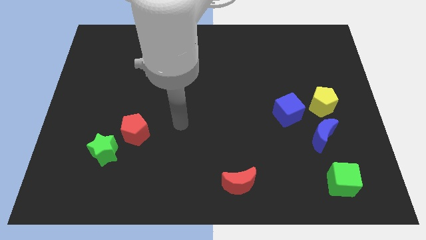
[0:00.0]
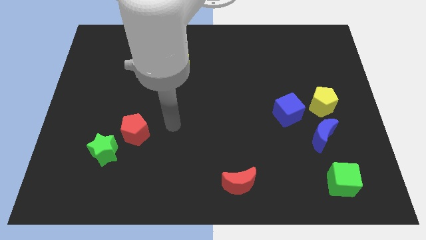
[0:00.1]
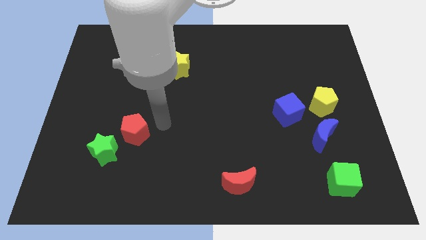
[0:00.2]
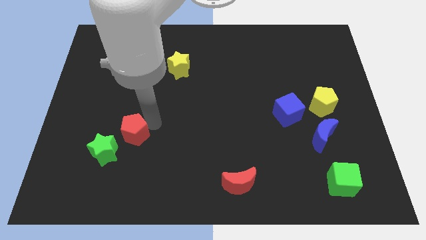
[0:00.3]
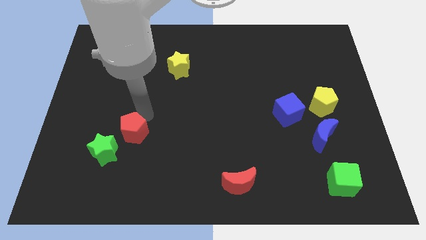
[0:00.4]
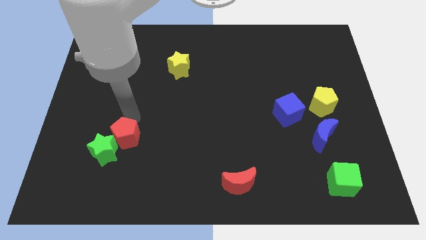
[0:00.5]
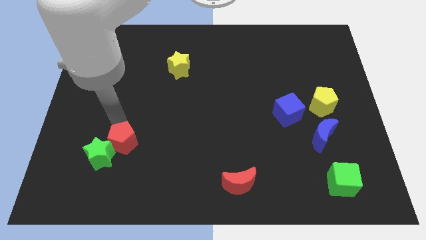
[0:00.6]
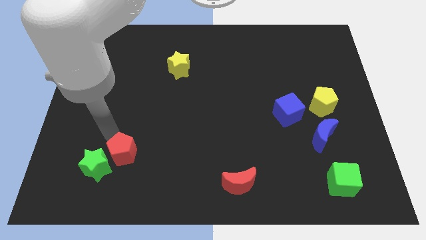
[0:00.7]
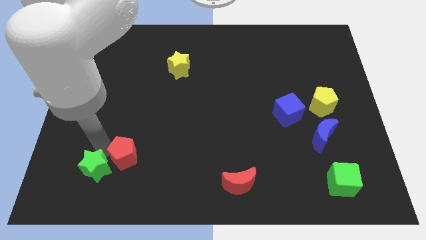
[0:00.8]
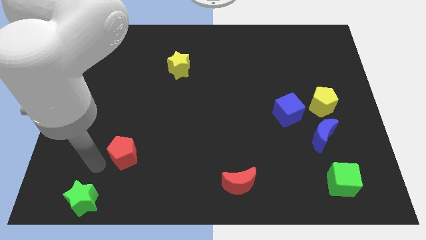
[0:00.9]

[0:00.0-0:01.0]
move the red pentagon away from the green star

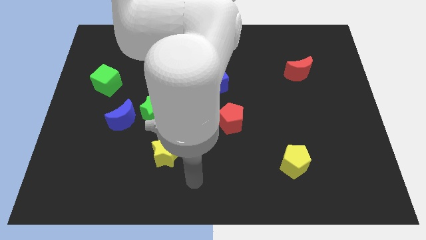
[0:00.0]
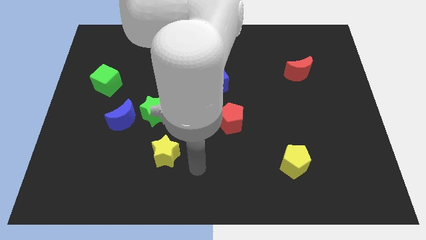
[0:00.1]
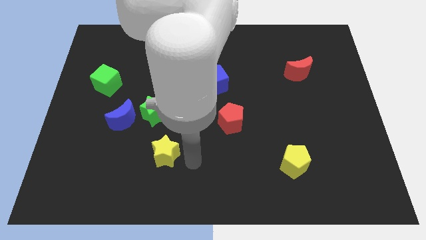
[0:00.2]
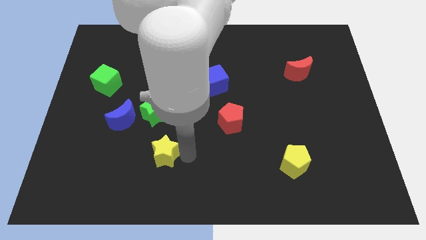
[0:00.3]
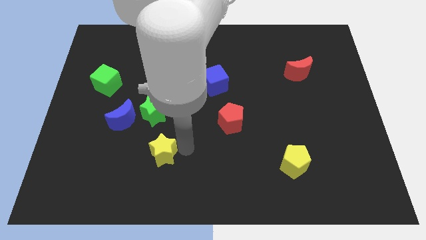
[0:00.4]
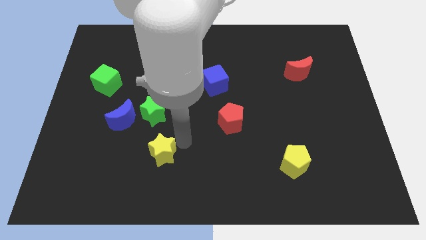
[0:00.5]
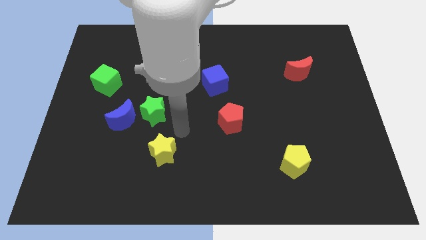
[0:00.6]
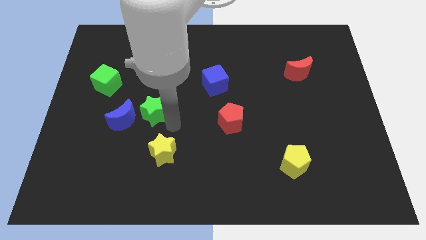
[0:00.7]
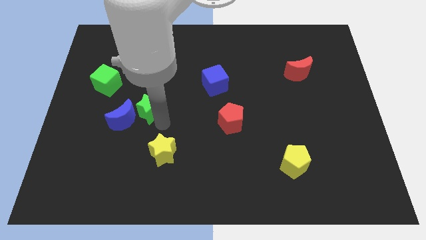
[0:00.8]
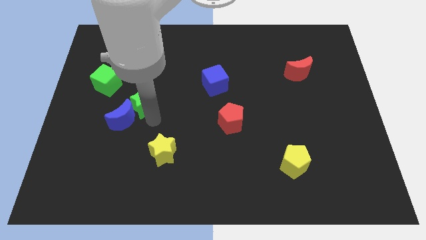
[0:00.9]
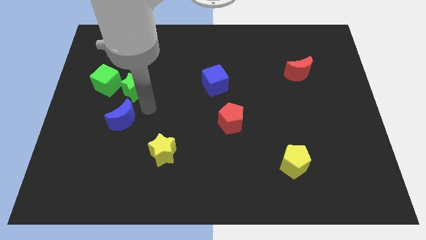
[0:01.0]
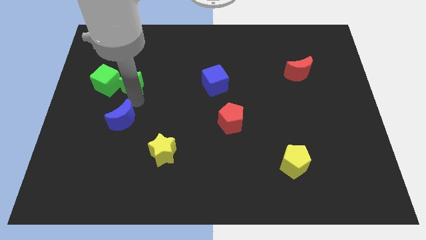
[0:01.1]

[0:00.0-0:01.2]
pull the blue moon apart from the green star

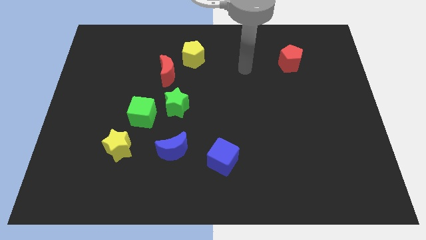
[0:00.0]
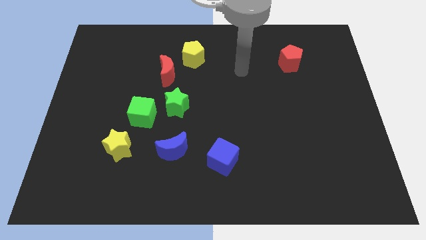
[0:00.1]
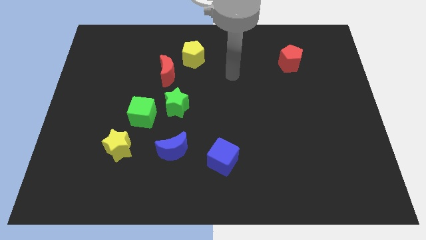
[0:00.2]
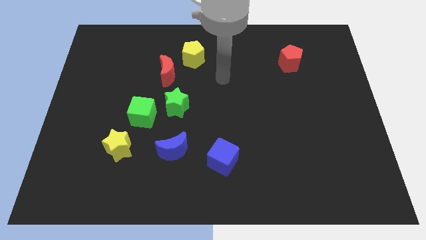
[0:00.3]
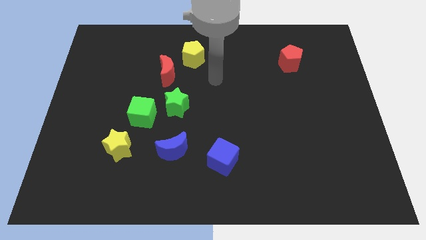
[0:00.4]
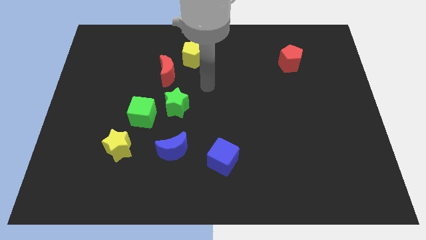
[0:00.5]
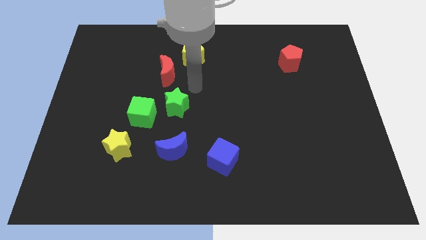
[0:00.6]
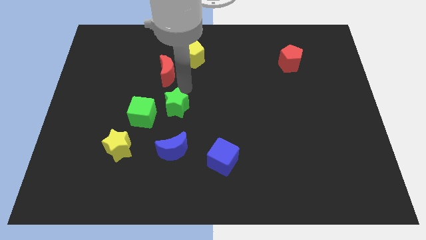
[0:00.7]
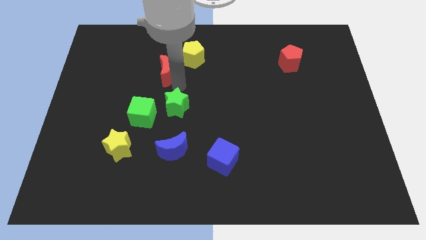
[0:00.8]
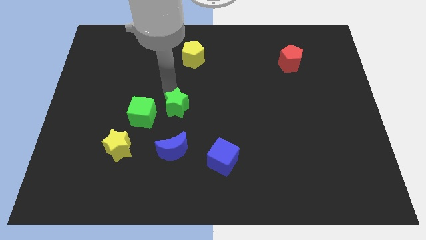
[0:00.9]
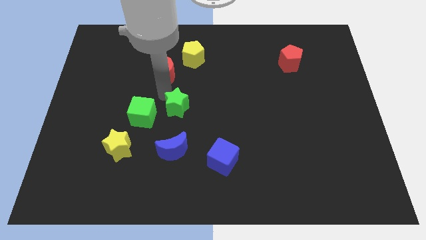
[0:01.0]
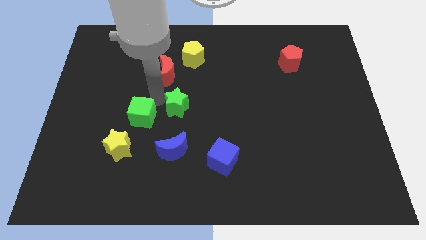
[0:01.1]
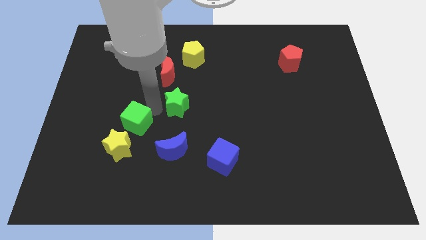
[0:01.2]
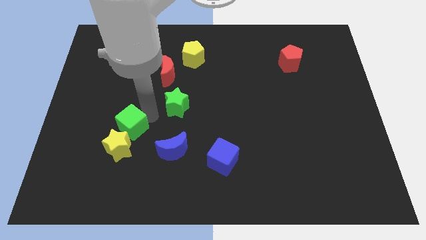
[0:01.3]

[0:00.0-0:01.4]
move the green star away from the green cube

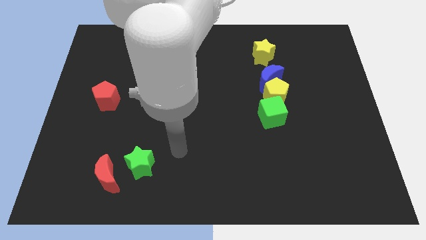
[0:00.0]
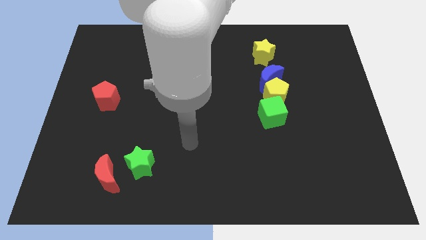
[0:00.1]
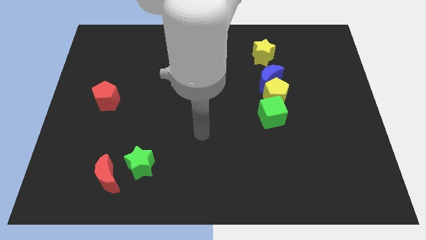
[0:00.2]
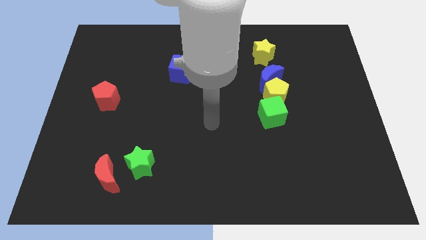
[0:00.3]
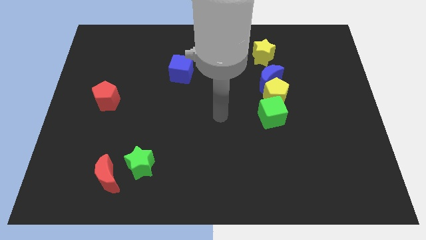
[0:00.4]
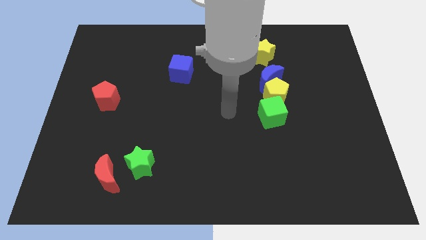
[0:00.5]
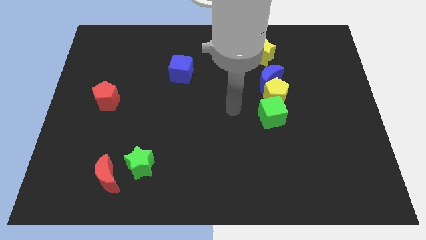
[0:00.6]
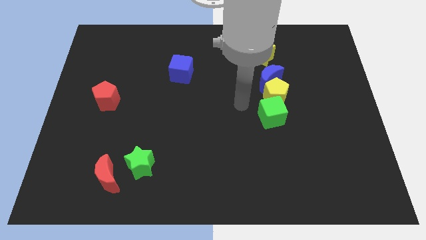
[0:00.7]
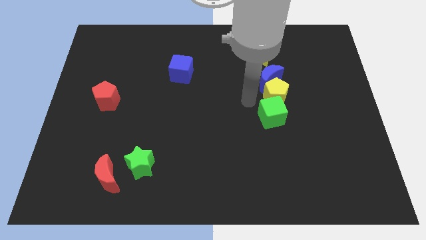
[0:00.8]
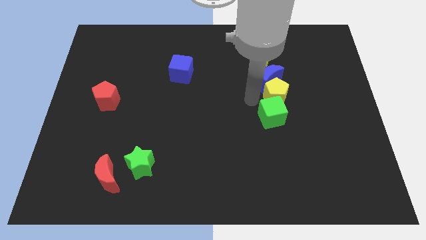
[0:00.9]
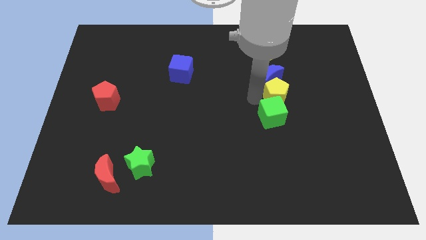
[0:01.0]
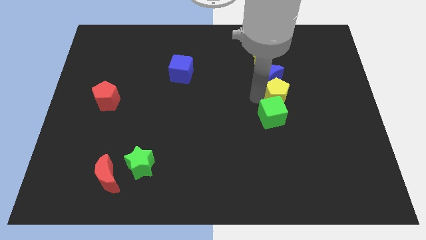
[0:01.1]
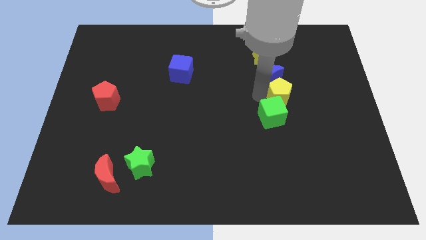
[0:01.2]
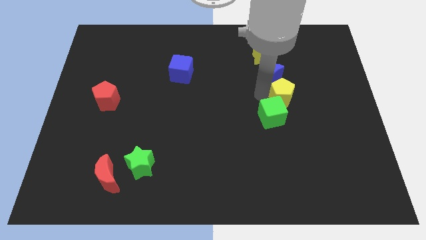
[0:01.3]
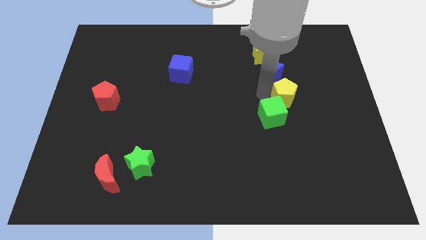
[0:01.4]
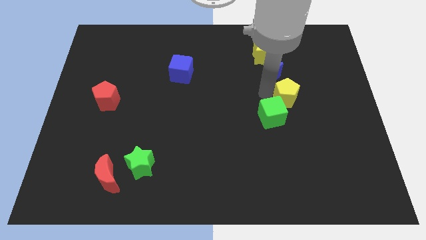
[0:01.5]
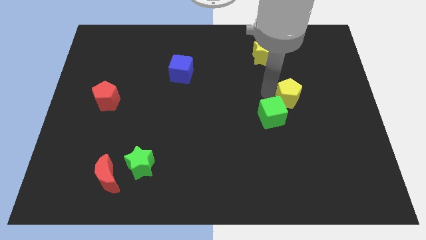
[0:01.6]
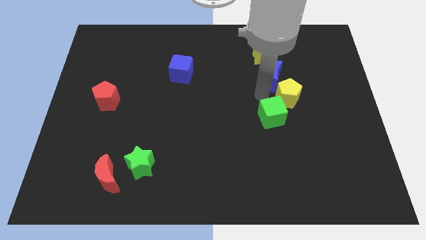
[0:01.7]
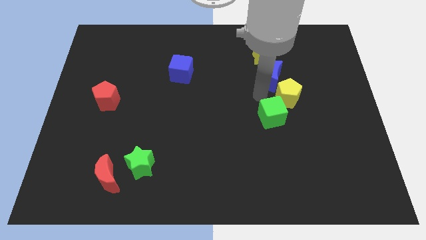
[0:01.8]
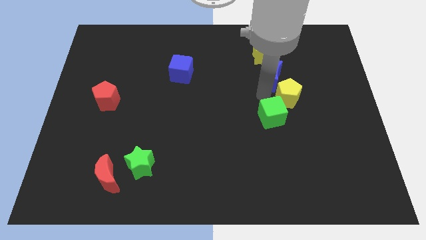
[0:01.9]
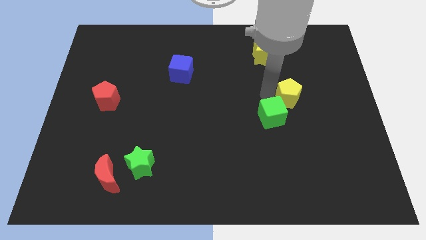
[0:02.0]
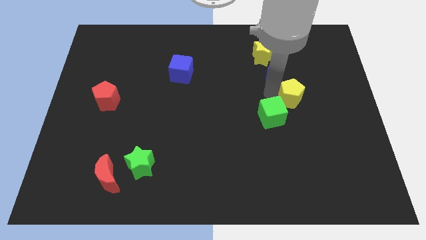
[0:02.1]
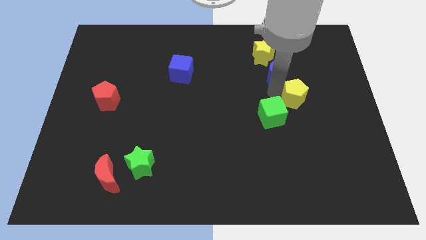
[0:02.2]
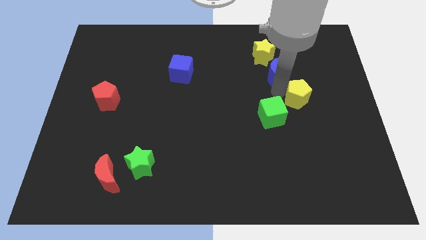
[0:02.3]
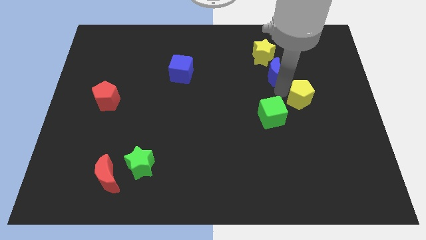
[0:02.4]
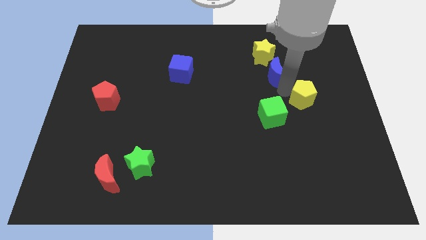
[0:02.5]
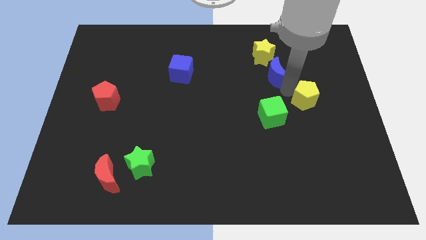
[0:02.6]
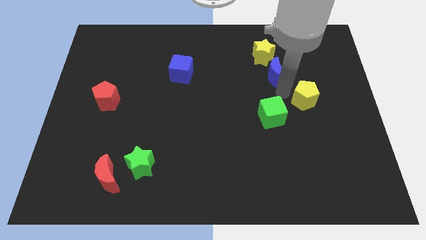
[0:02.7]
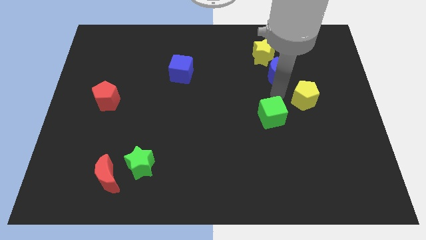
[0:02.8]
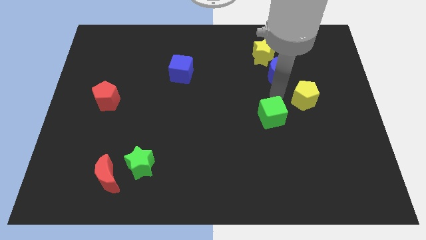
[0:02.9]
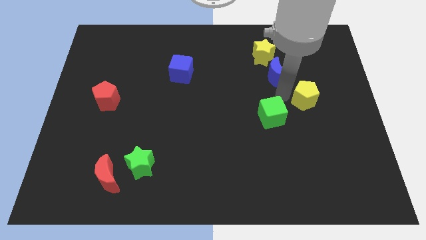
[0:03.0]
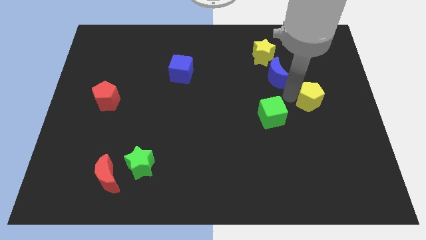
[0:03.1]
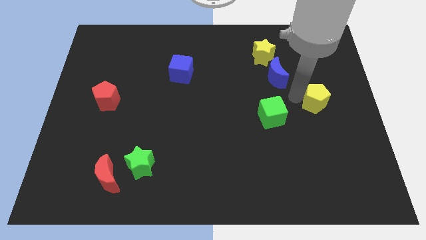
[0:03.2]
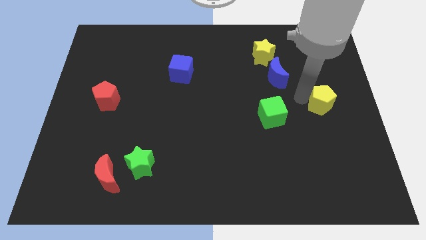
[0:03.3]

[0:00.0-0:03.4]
move the yellow pentagon away from the blue moon and green cube

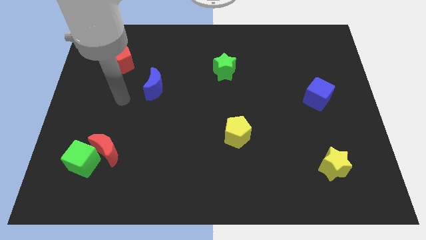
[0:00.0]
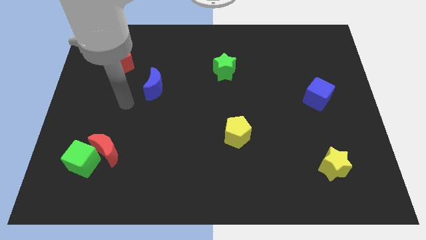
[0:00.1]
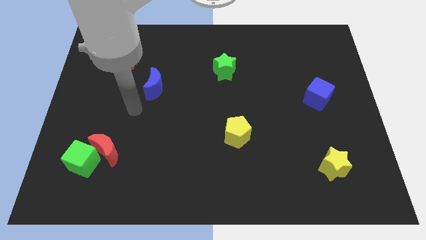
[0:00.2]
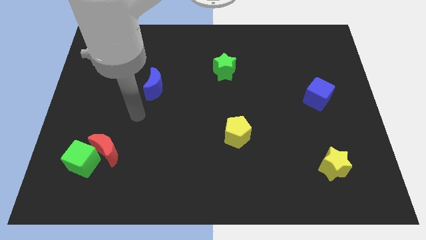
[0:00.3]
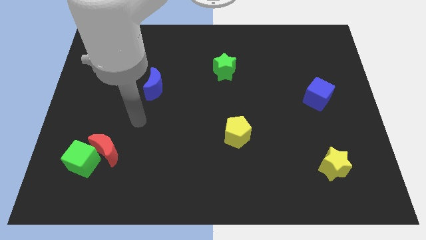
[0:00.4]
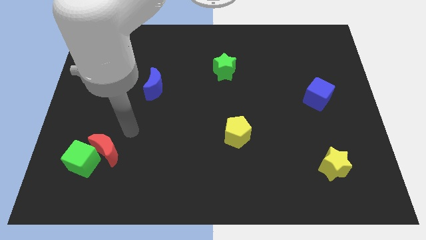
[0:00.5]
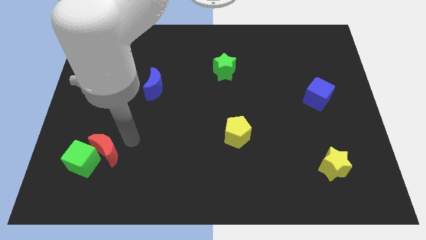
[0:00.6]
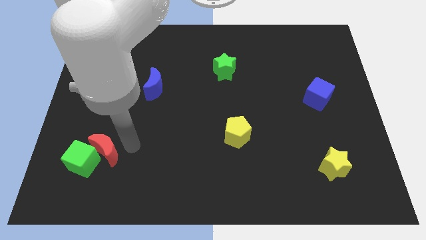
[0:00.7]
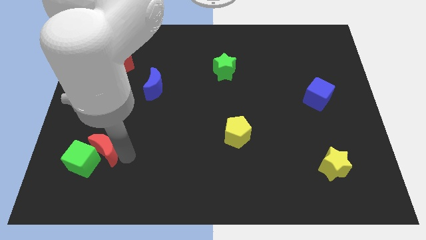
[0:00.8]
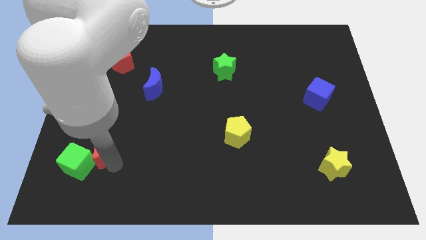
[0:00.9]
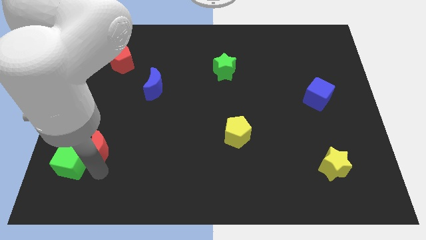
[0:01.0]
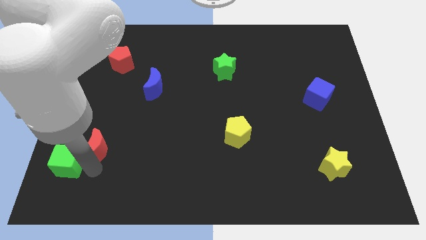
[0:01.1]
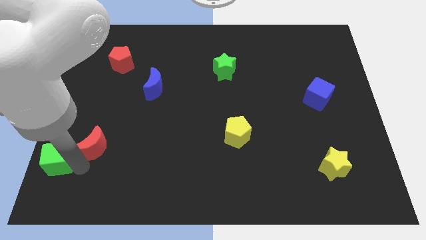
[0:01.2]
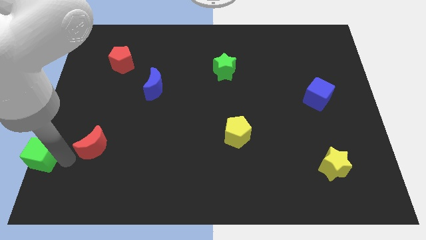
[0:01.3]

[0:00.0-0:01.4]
separate the red moon from the green cube

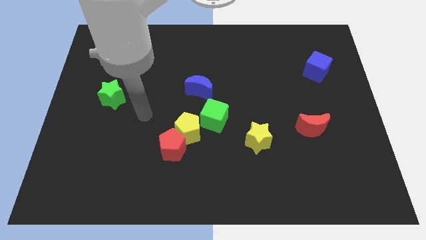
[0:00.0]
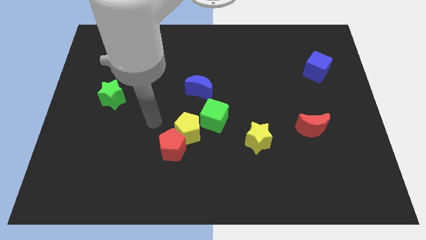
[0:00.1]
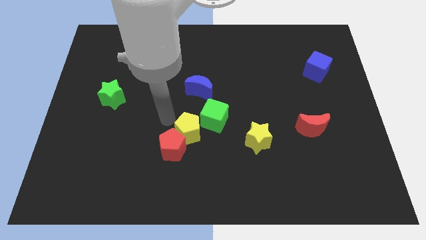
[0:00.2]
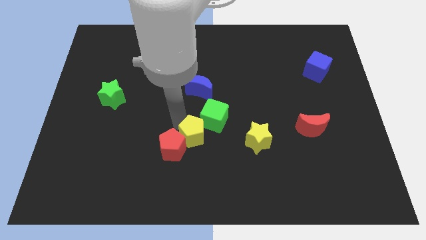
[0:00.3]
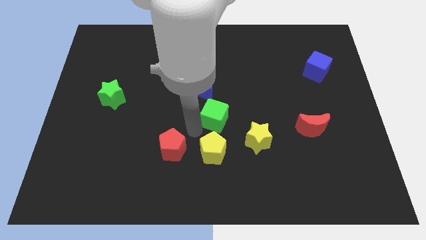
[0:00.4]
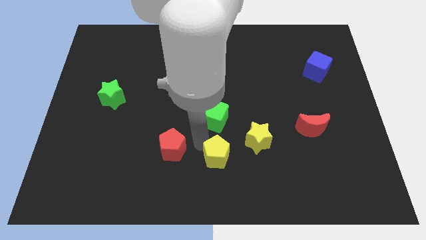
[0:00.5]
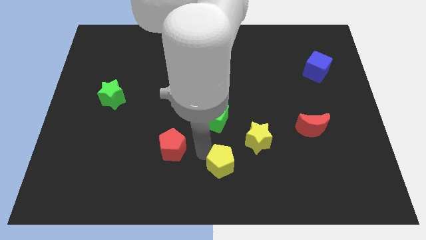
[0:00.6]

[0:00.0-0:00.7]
separate the red pentagon from the yellow pentagon

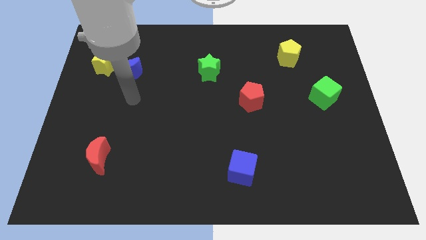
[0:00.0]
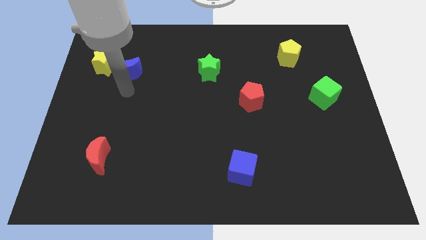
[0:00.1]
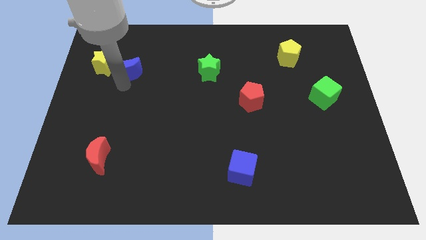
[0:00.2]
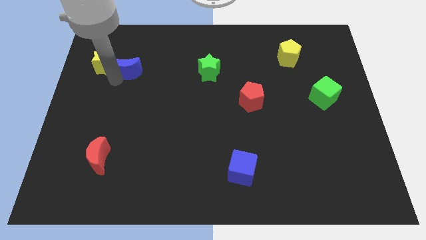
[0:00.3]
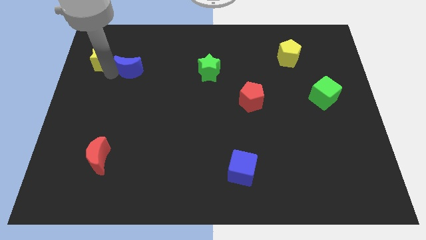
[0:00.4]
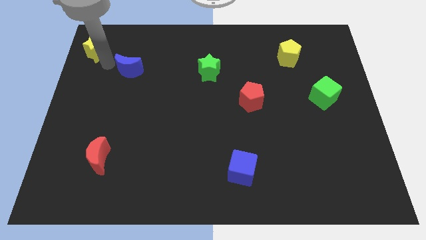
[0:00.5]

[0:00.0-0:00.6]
pull the blue moon apart from the yellow star
